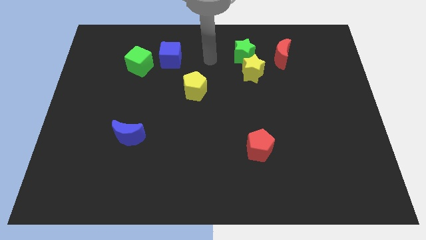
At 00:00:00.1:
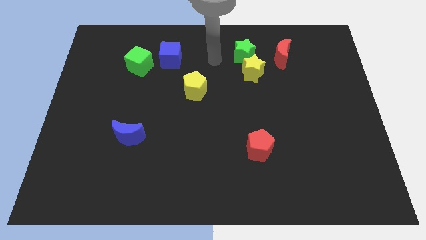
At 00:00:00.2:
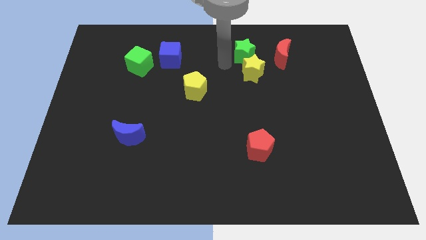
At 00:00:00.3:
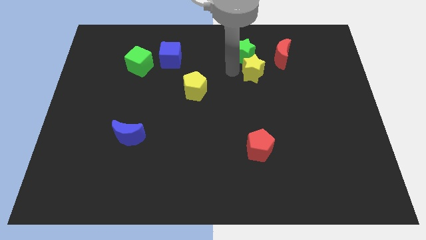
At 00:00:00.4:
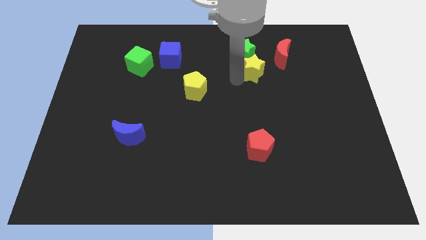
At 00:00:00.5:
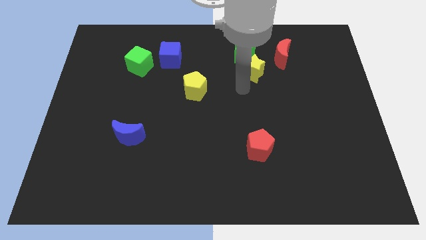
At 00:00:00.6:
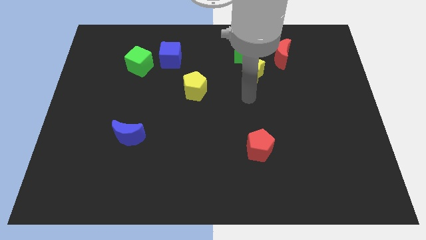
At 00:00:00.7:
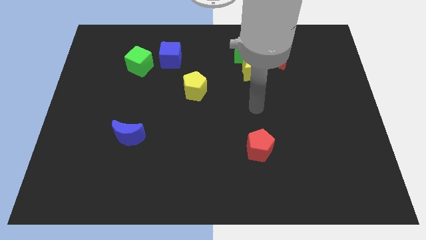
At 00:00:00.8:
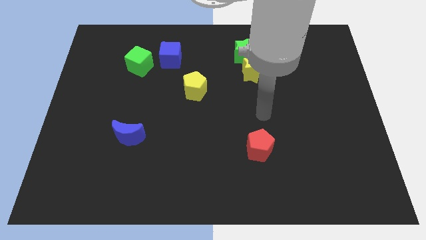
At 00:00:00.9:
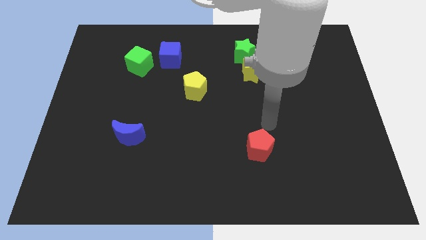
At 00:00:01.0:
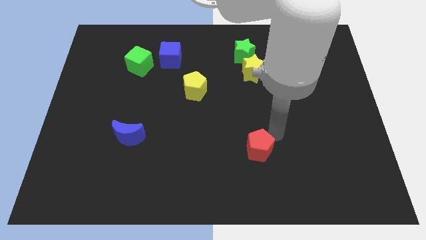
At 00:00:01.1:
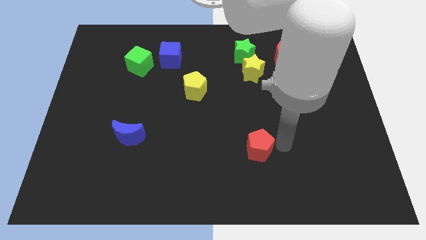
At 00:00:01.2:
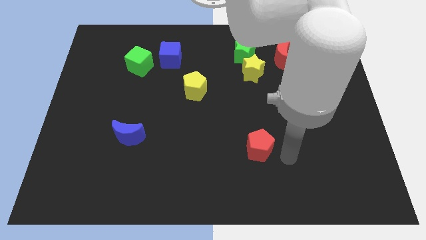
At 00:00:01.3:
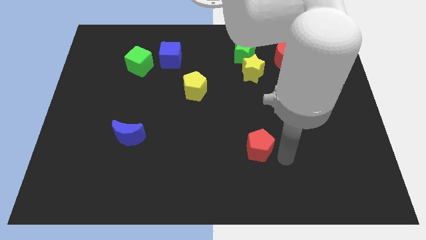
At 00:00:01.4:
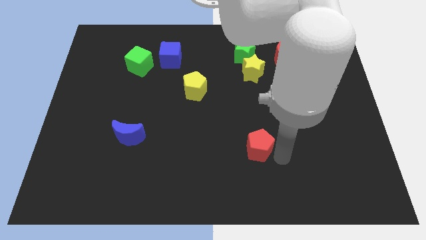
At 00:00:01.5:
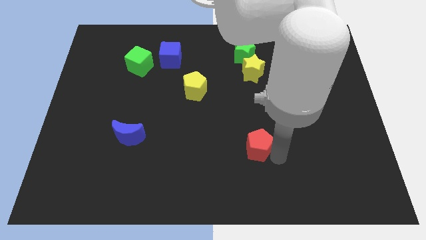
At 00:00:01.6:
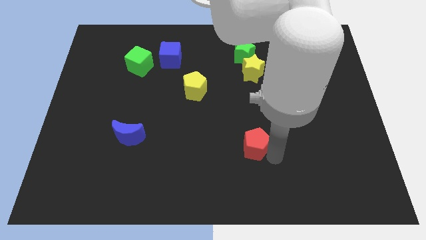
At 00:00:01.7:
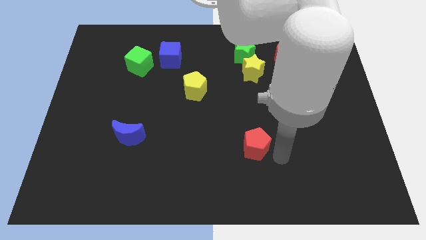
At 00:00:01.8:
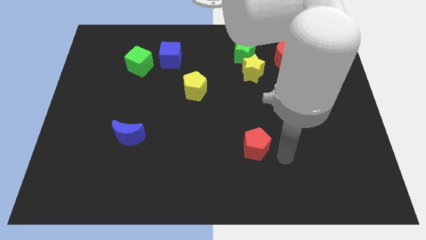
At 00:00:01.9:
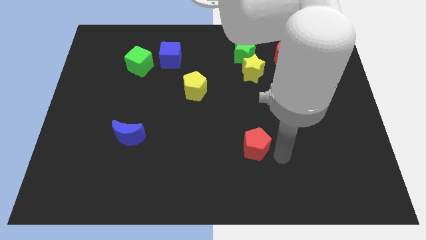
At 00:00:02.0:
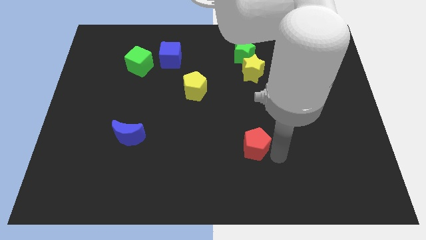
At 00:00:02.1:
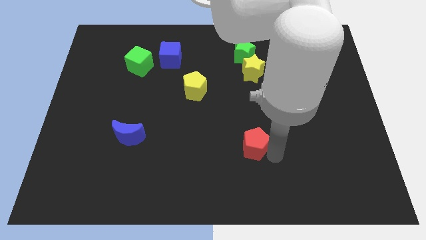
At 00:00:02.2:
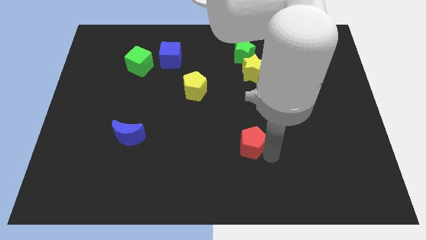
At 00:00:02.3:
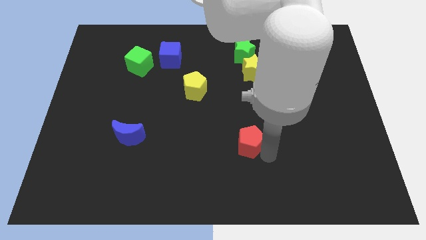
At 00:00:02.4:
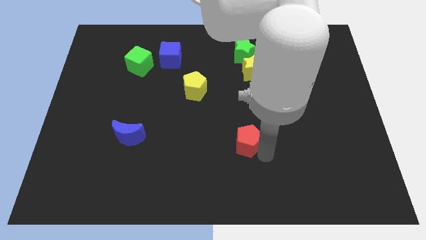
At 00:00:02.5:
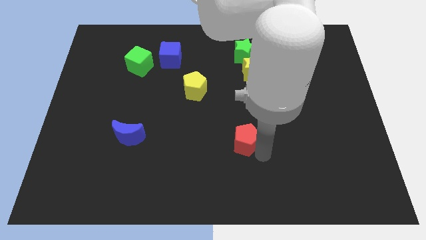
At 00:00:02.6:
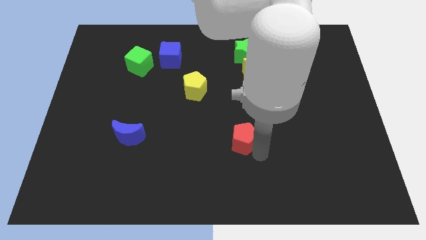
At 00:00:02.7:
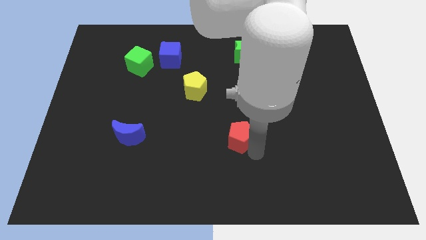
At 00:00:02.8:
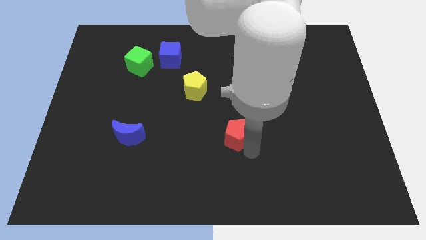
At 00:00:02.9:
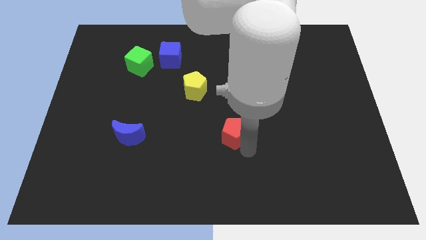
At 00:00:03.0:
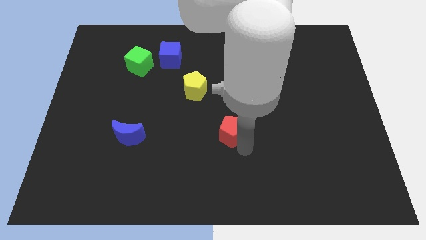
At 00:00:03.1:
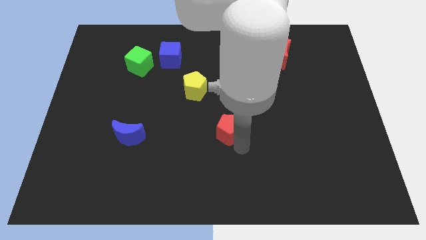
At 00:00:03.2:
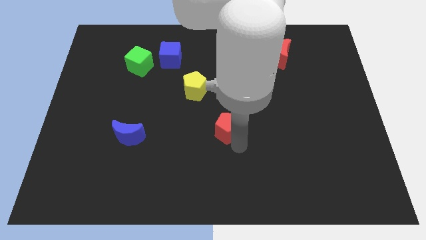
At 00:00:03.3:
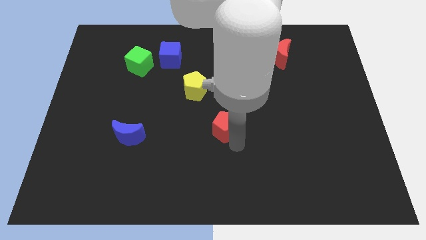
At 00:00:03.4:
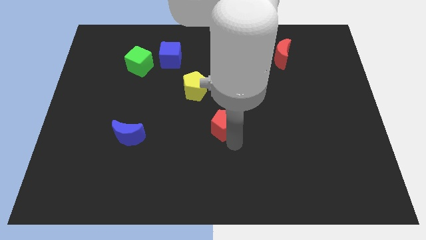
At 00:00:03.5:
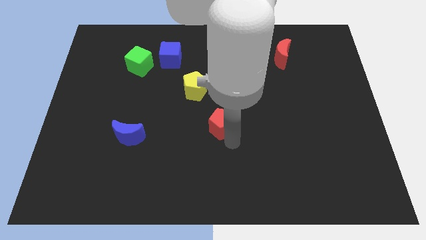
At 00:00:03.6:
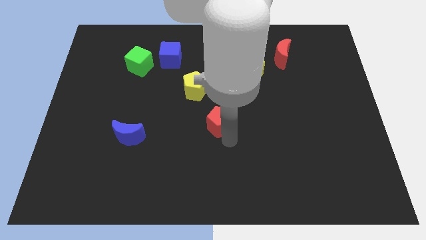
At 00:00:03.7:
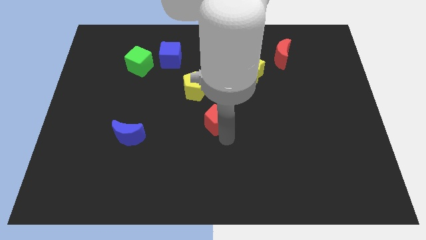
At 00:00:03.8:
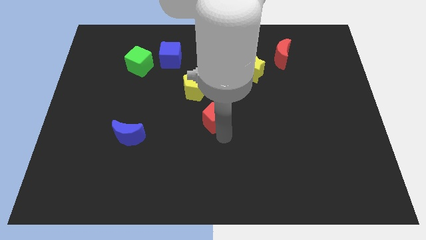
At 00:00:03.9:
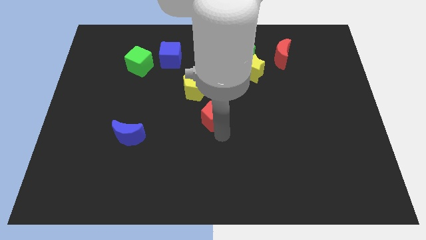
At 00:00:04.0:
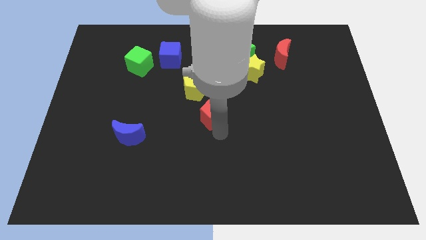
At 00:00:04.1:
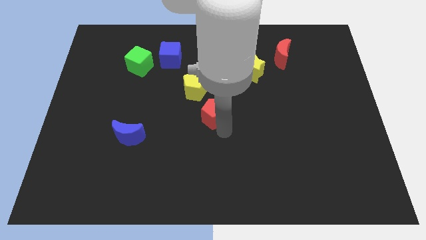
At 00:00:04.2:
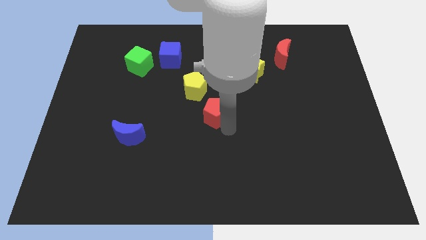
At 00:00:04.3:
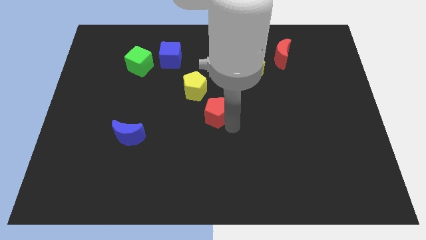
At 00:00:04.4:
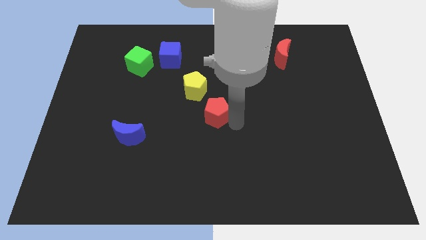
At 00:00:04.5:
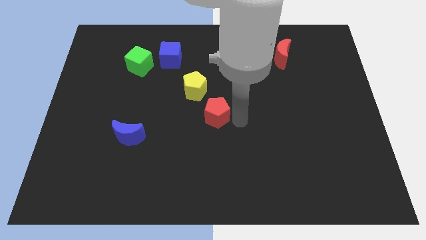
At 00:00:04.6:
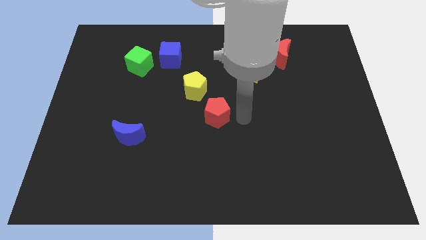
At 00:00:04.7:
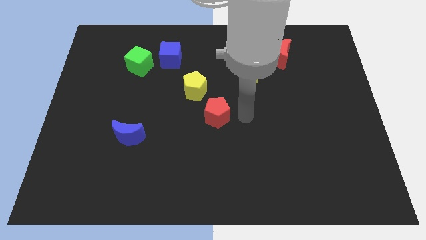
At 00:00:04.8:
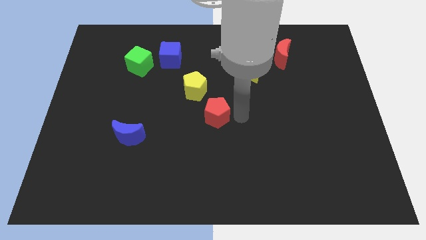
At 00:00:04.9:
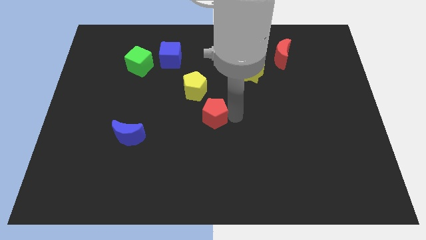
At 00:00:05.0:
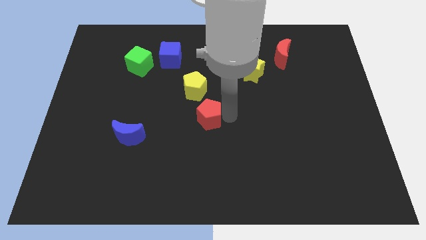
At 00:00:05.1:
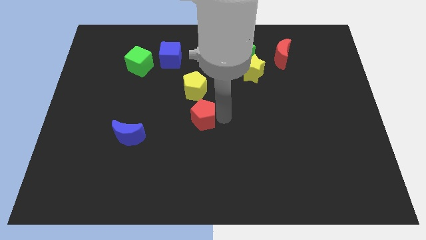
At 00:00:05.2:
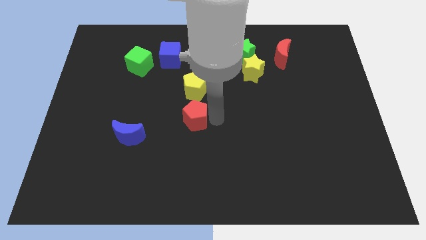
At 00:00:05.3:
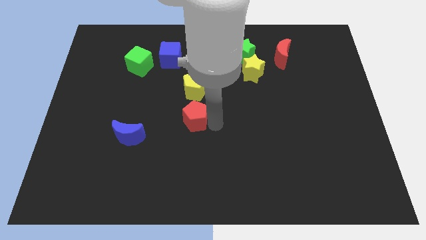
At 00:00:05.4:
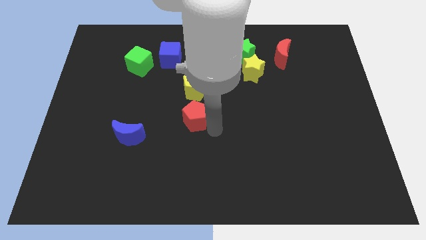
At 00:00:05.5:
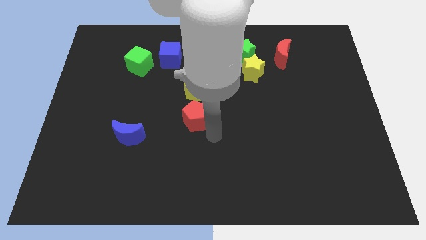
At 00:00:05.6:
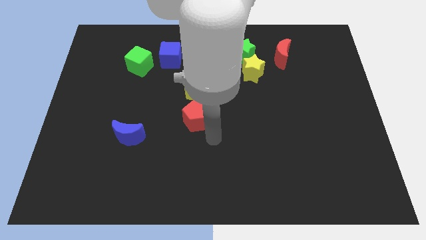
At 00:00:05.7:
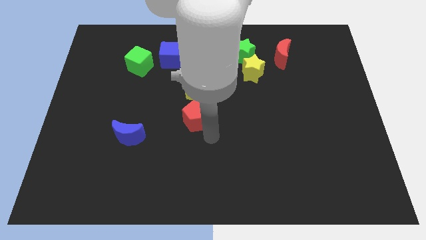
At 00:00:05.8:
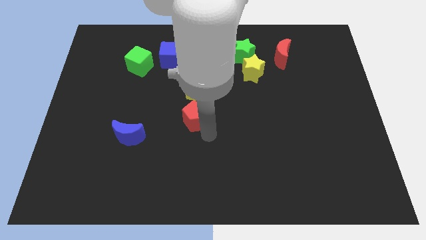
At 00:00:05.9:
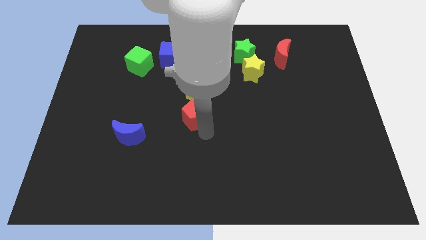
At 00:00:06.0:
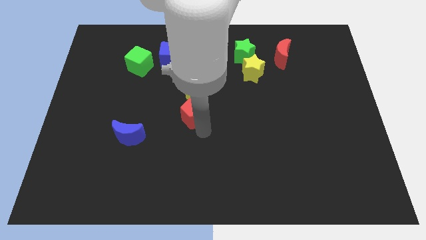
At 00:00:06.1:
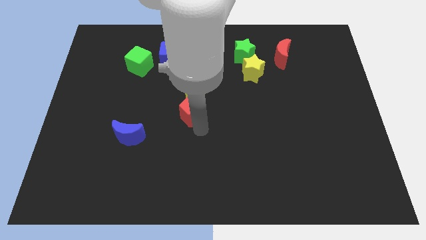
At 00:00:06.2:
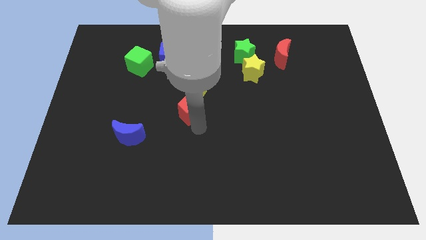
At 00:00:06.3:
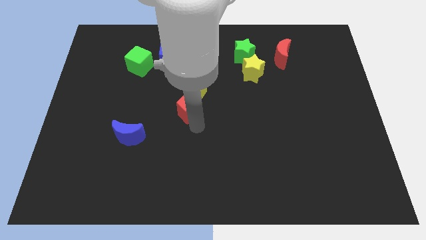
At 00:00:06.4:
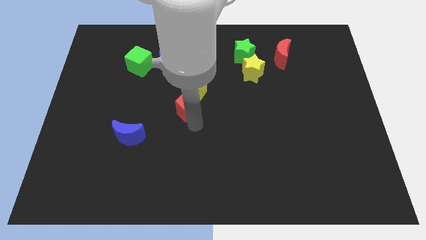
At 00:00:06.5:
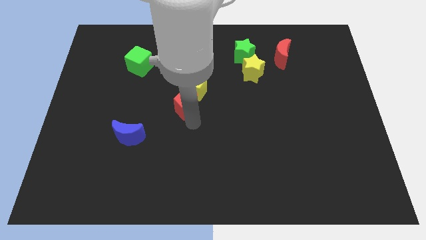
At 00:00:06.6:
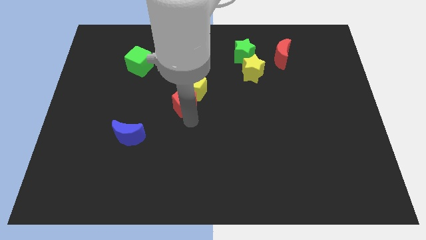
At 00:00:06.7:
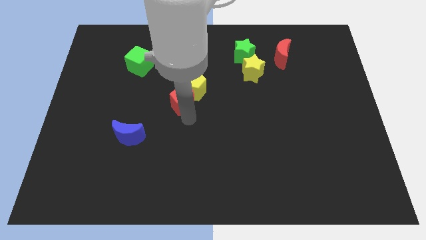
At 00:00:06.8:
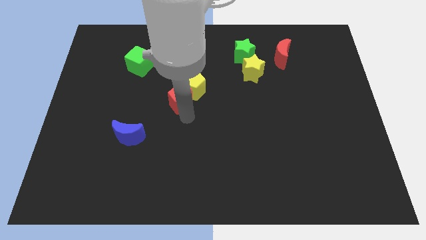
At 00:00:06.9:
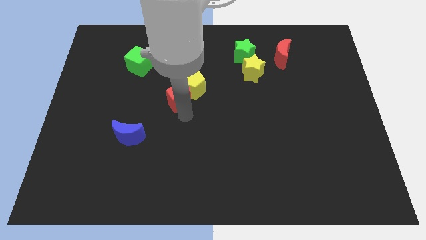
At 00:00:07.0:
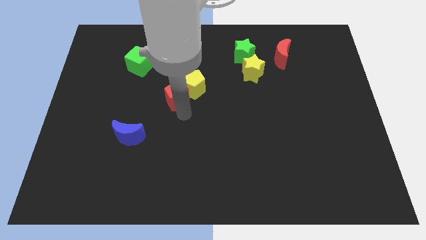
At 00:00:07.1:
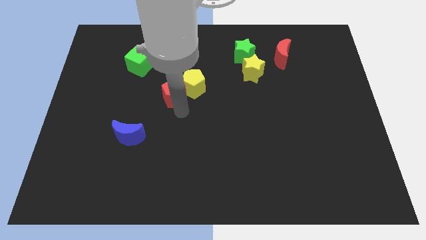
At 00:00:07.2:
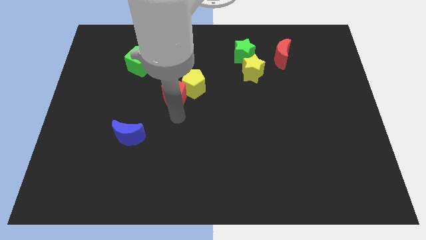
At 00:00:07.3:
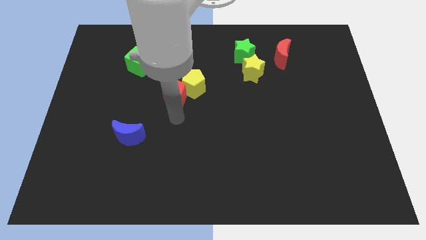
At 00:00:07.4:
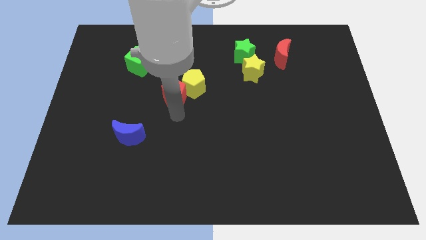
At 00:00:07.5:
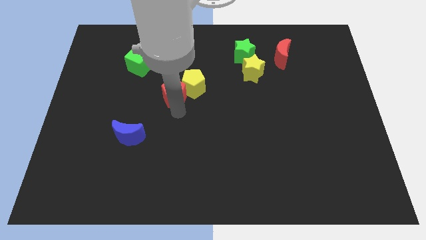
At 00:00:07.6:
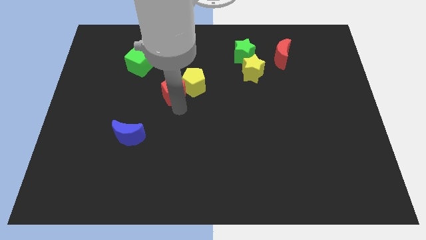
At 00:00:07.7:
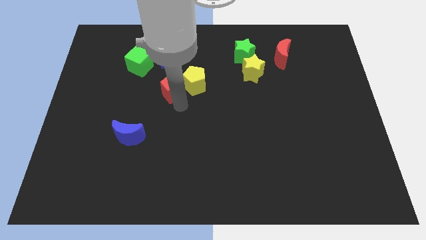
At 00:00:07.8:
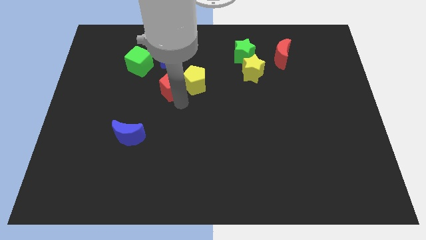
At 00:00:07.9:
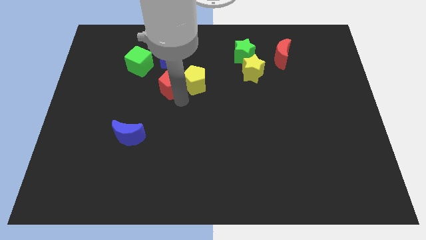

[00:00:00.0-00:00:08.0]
push the red pentagon to the top left of the yellow pentagon
